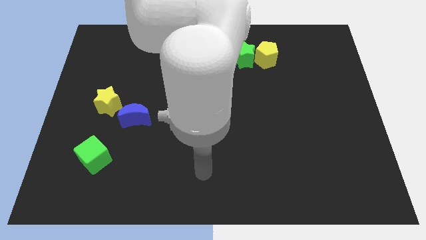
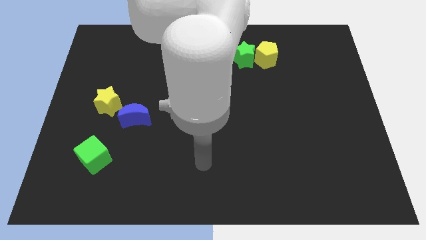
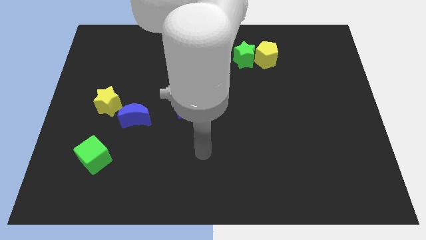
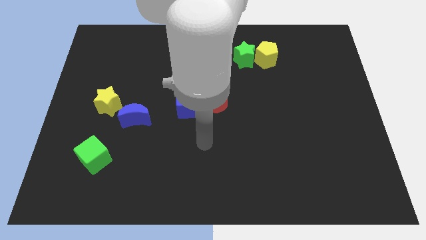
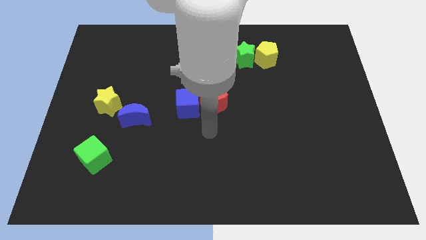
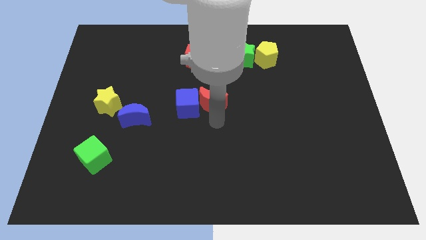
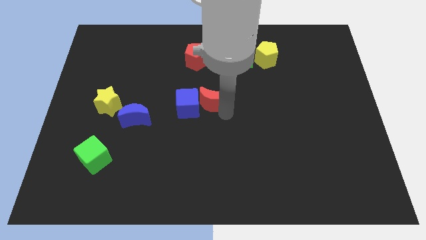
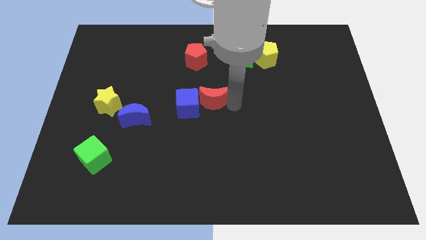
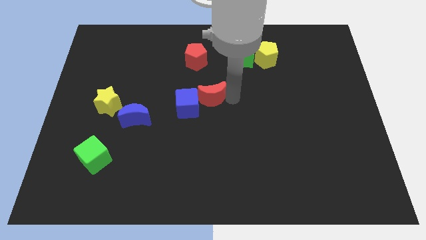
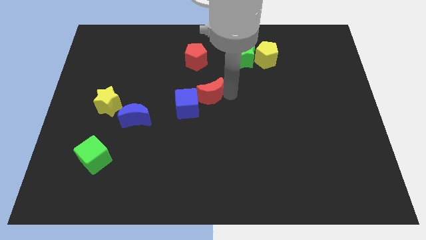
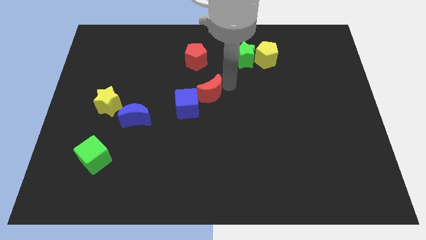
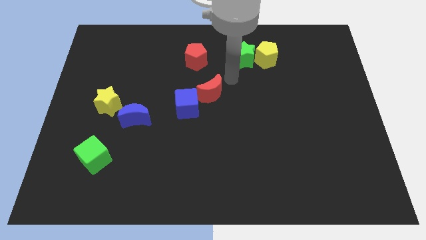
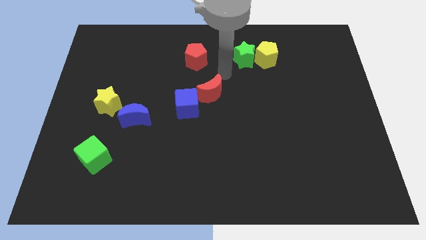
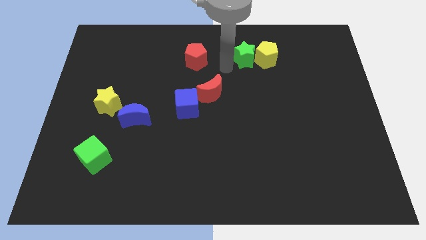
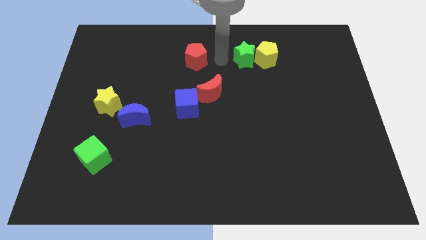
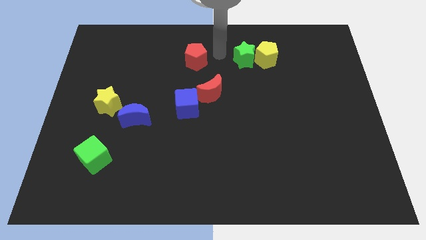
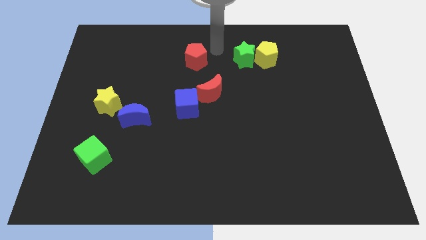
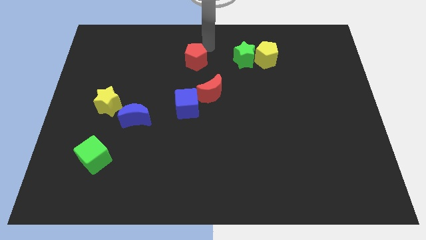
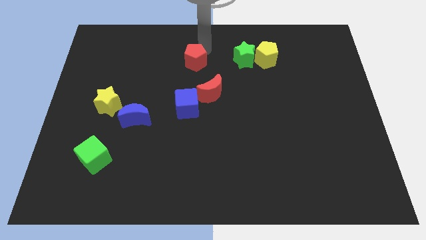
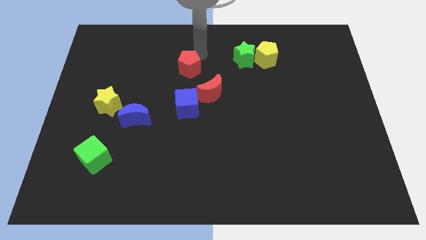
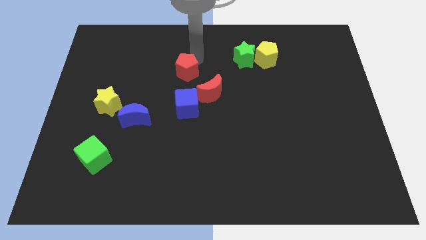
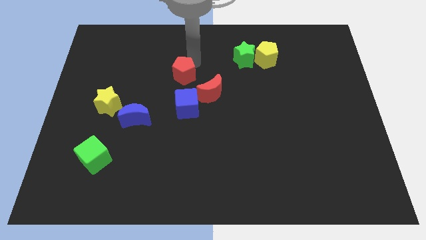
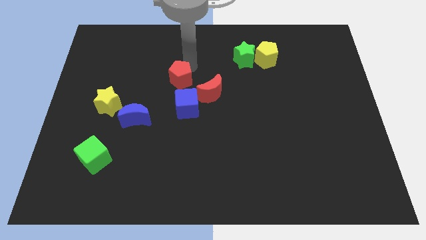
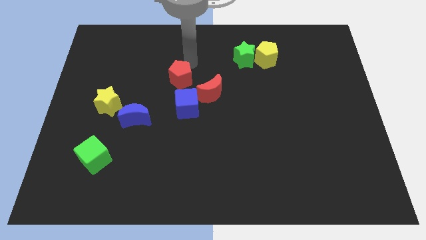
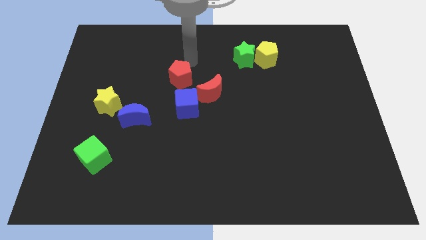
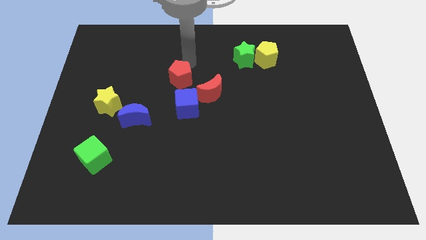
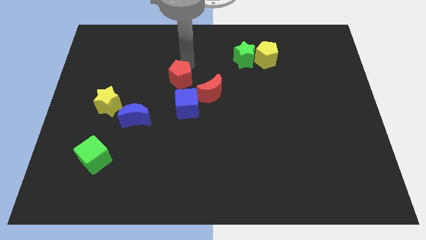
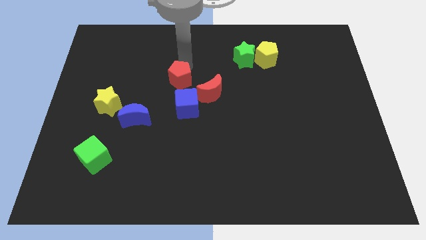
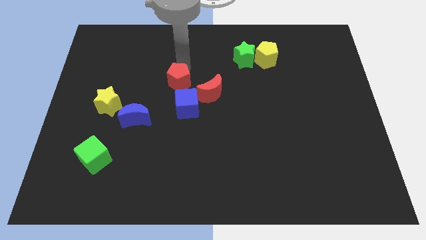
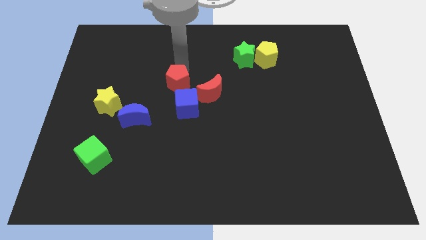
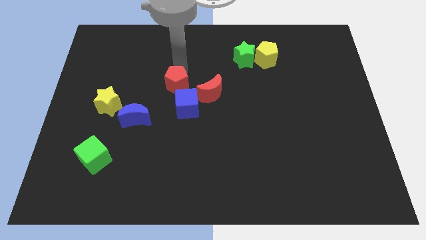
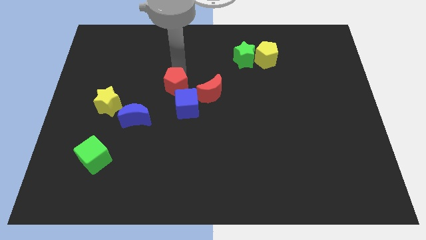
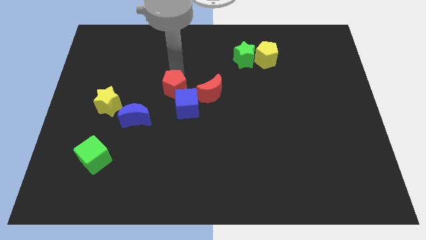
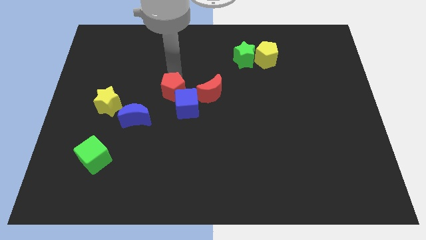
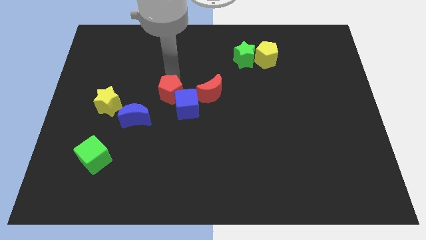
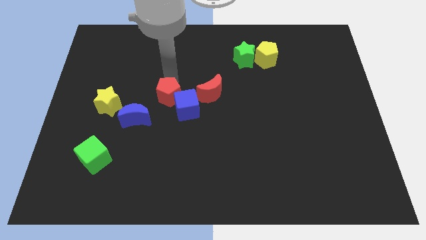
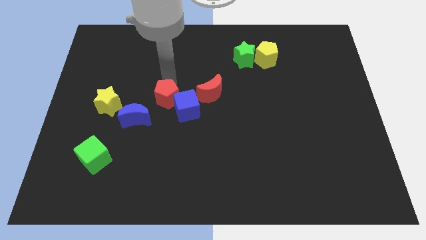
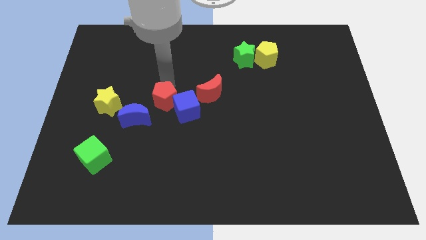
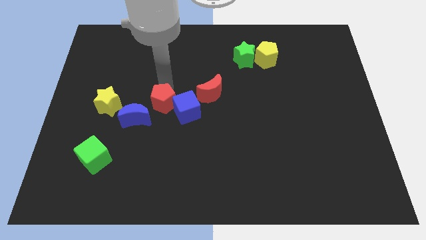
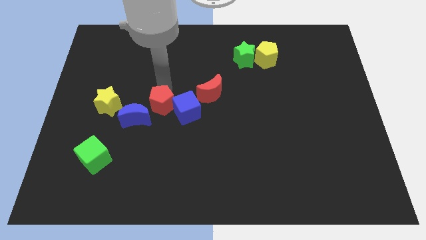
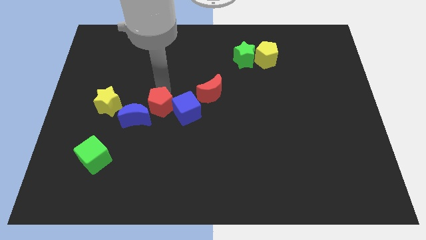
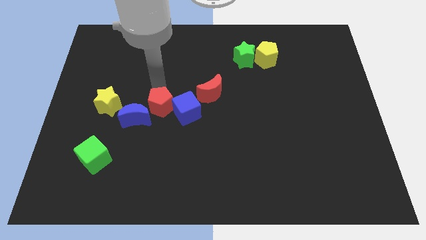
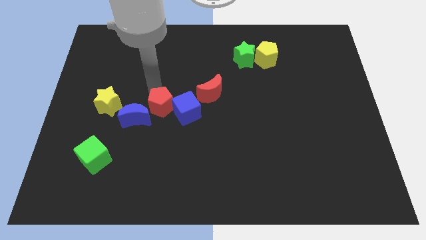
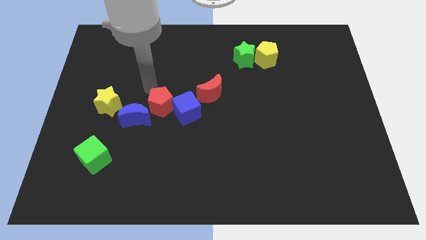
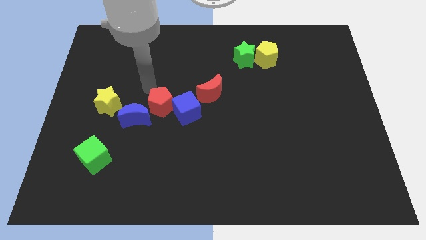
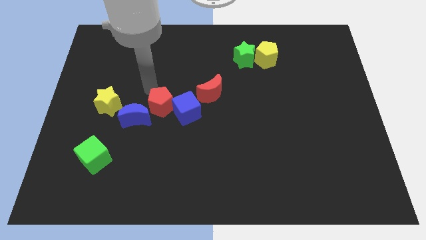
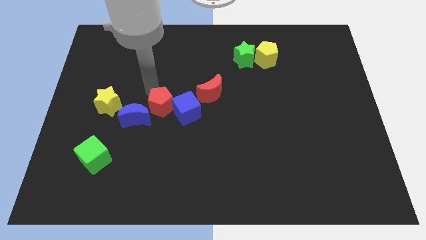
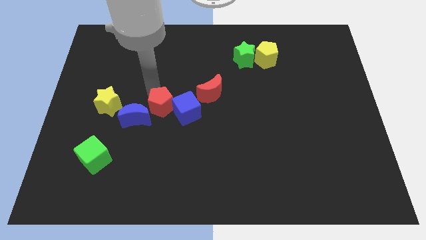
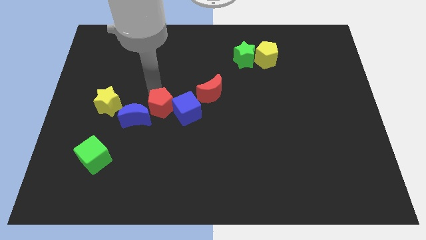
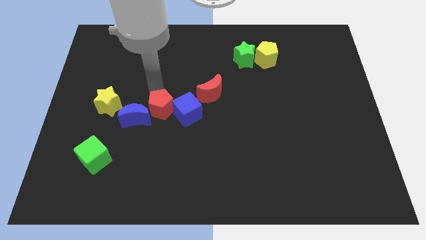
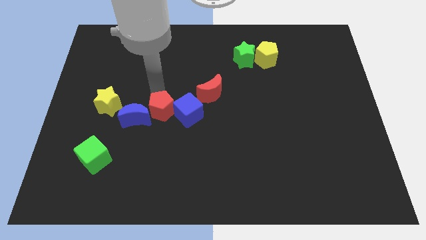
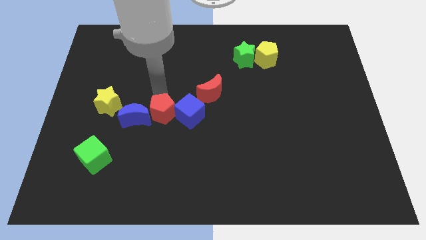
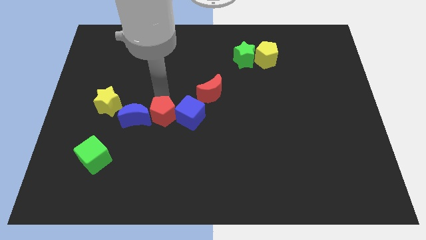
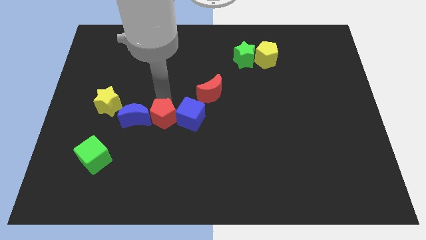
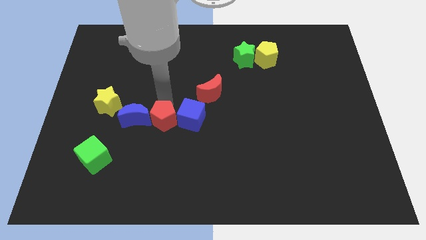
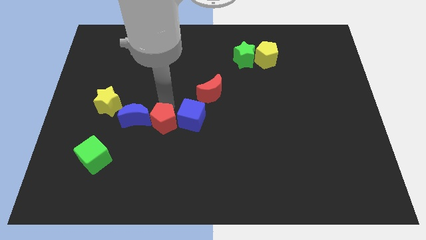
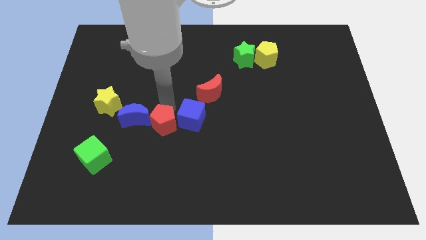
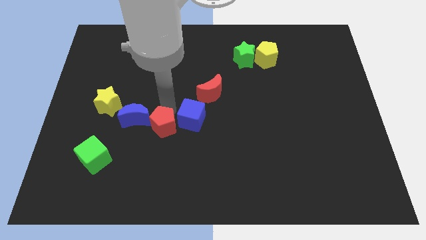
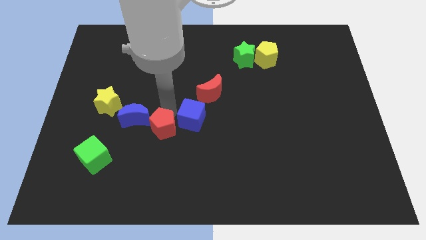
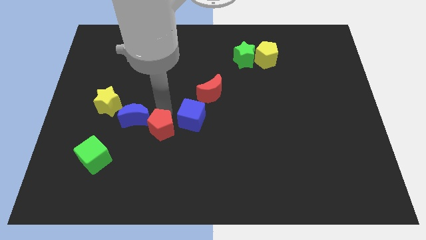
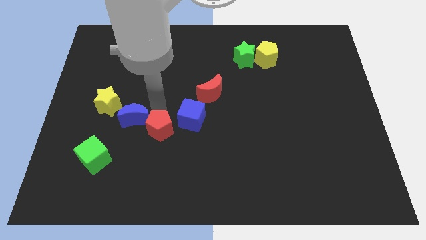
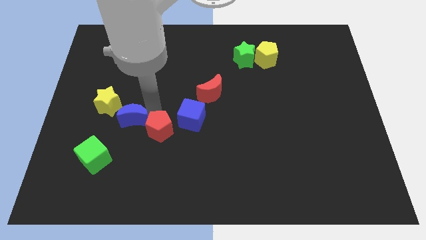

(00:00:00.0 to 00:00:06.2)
move the red pentagon downwards

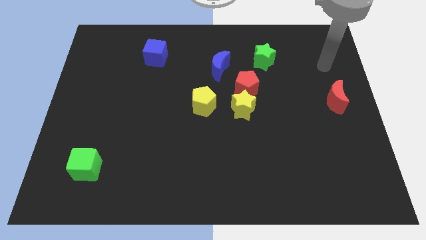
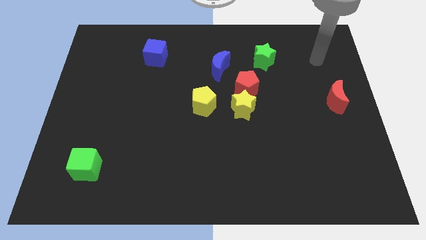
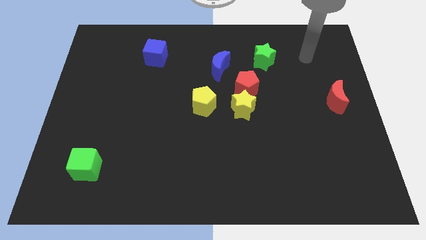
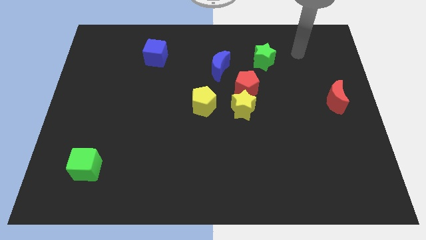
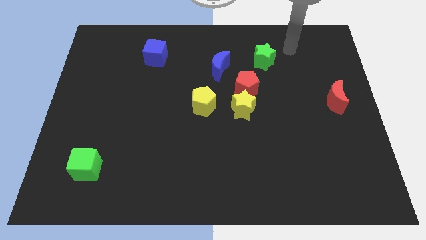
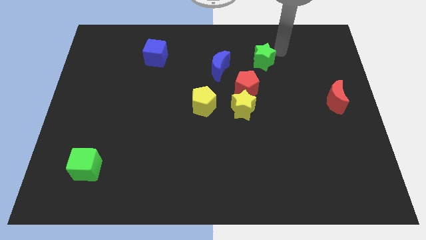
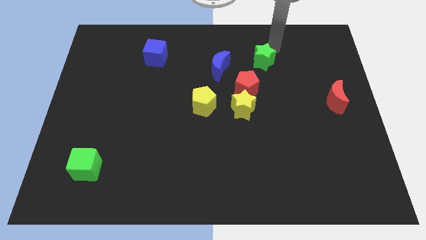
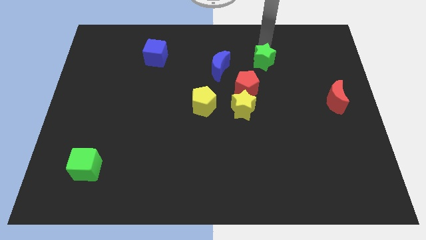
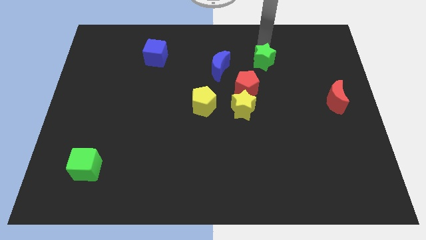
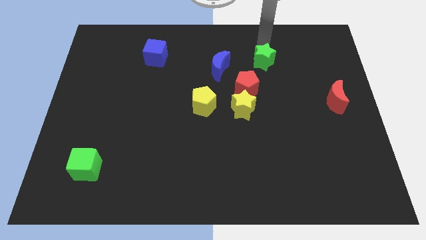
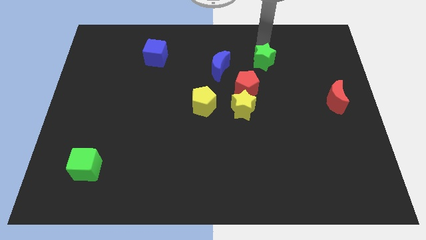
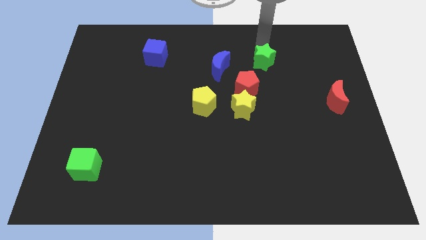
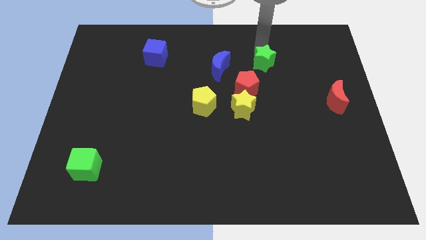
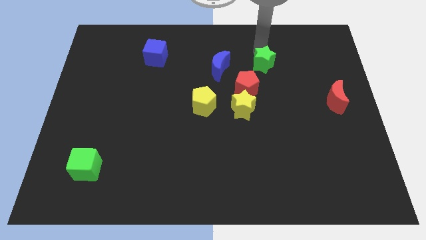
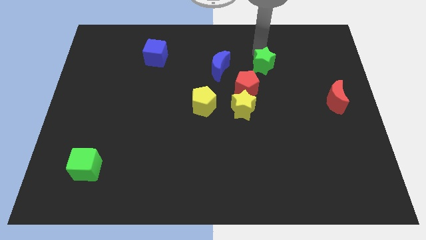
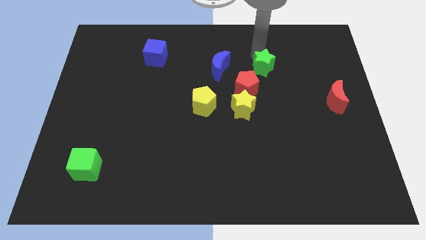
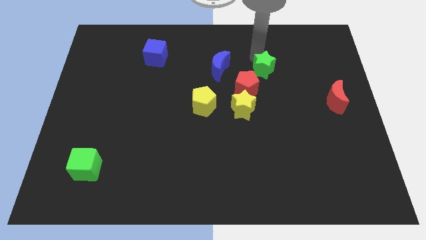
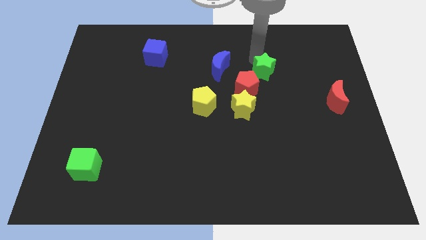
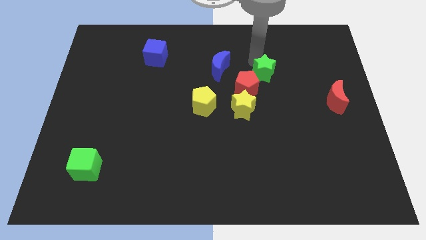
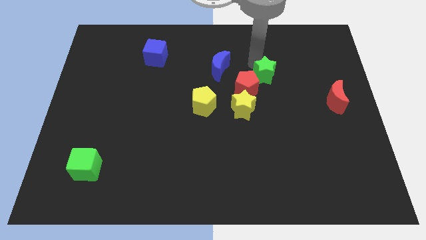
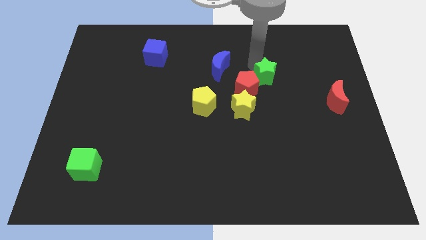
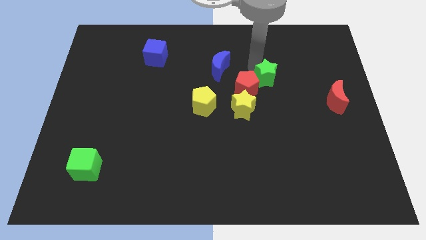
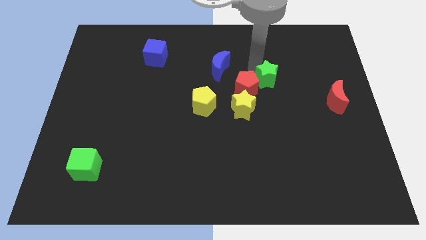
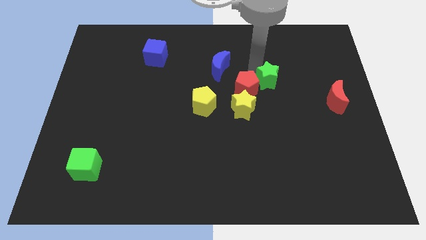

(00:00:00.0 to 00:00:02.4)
slide the green star a bit down
